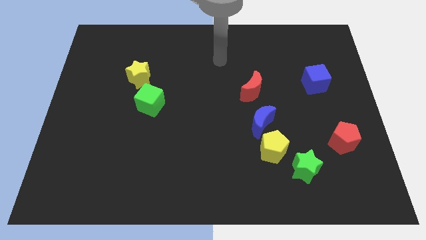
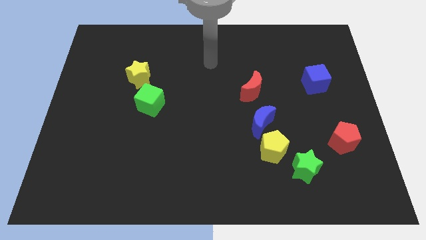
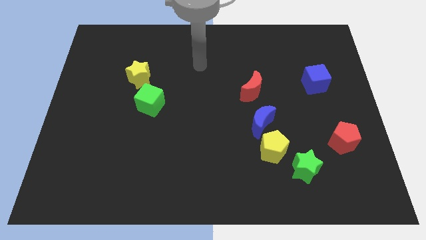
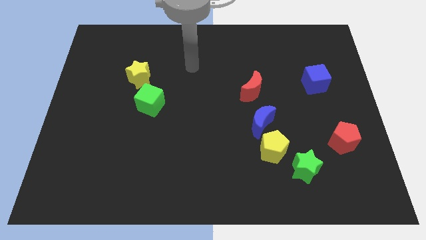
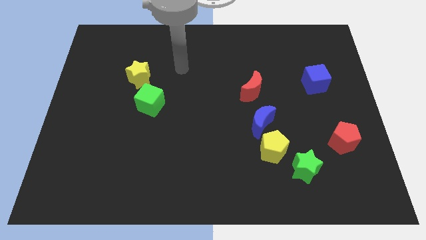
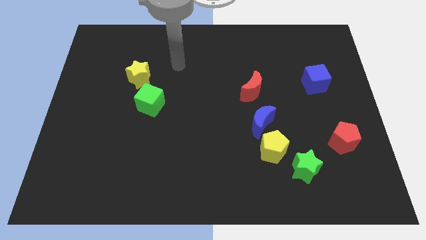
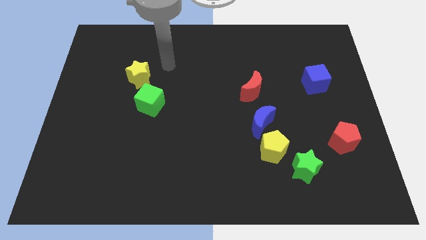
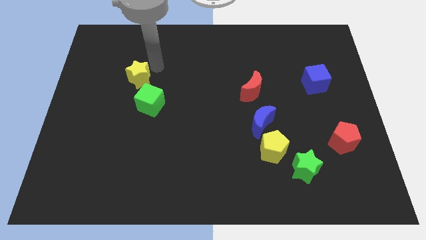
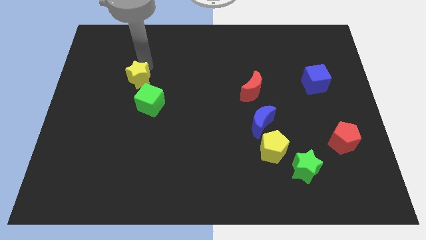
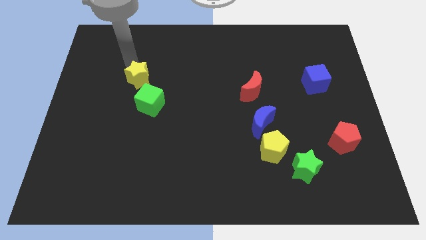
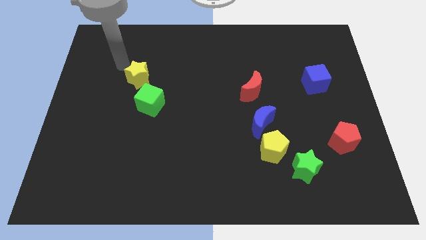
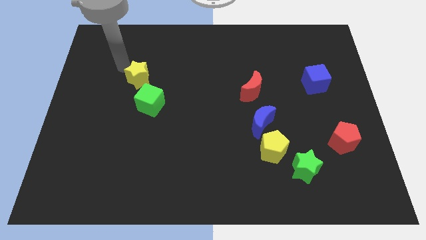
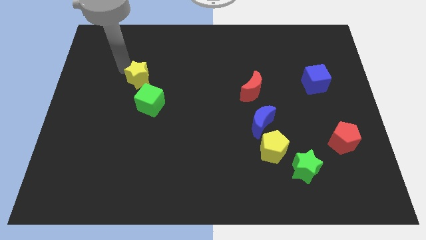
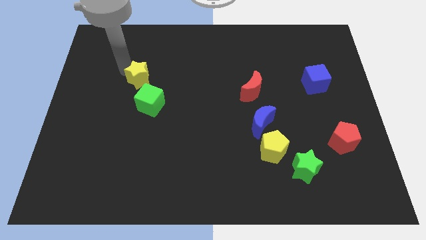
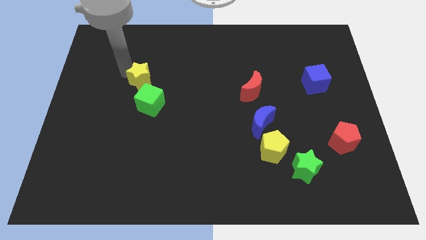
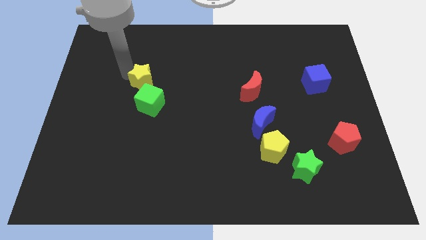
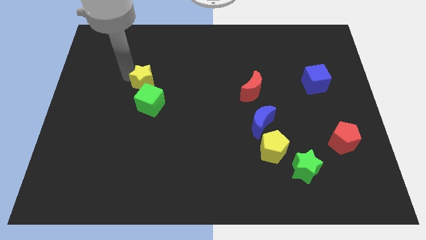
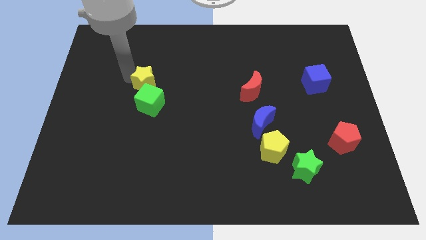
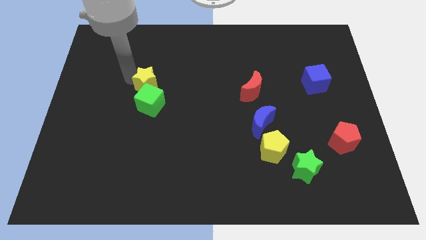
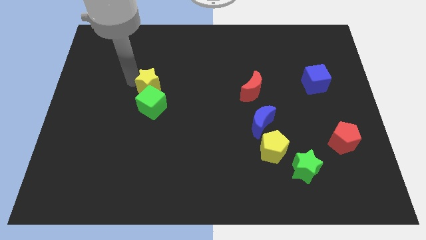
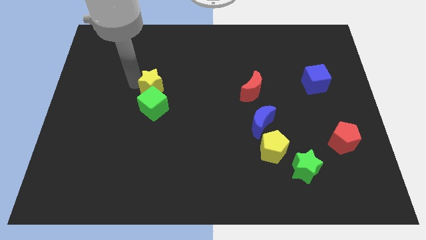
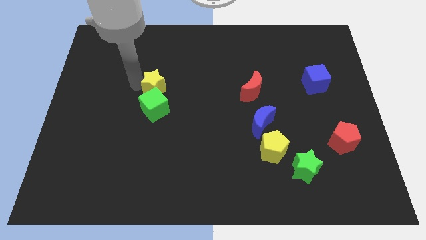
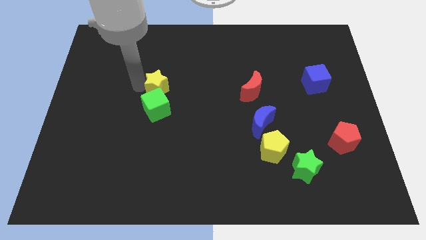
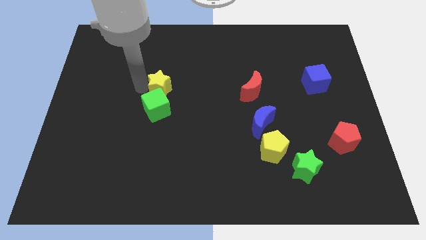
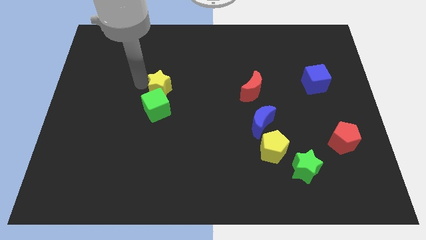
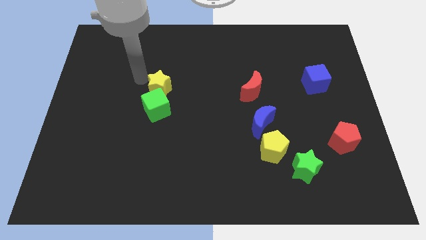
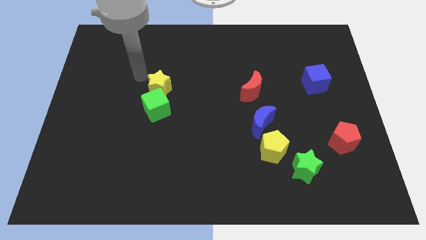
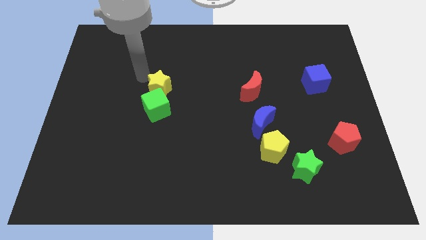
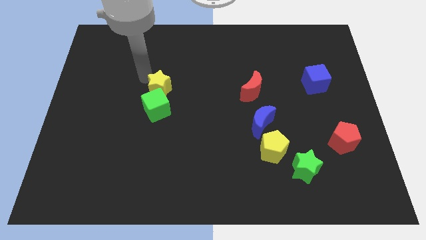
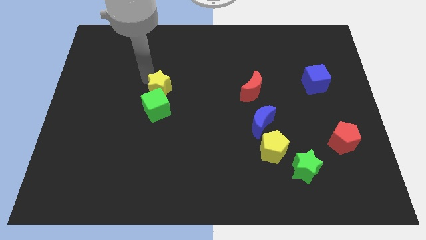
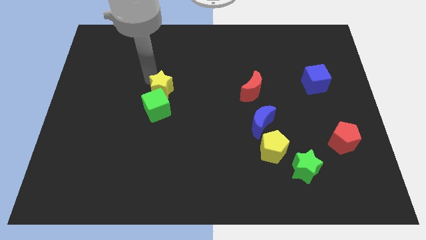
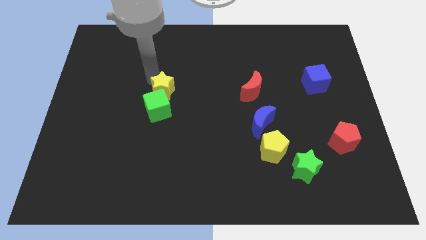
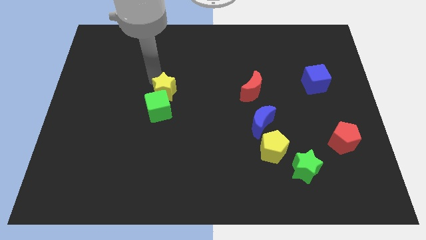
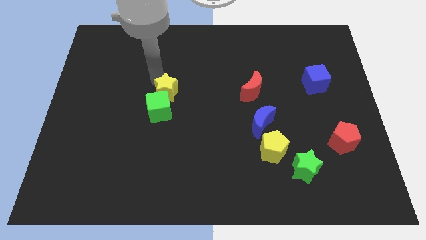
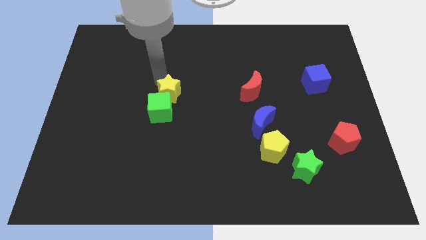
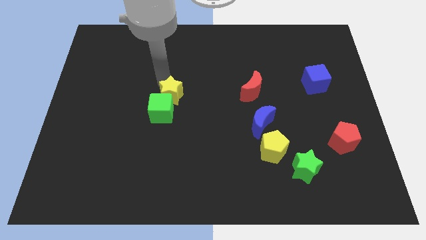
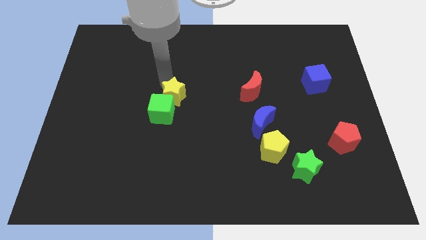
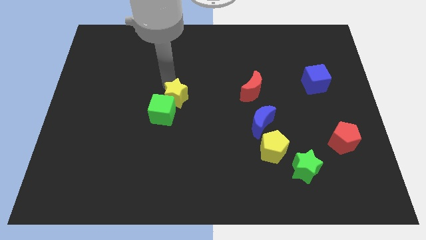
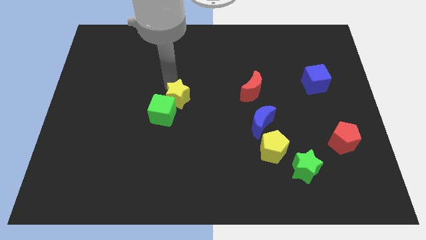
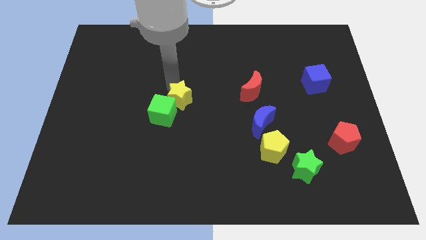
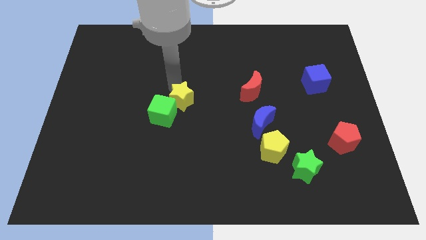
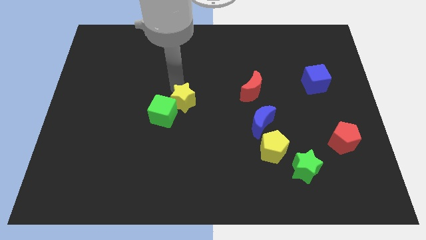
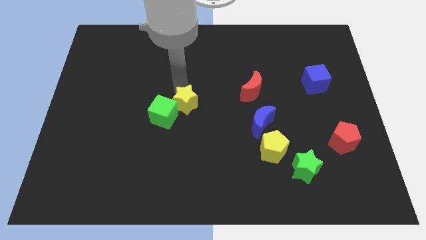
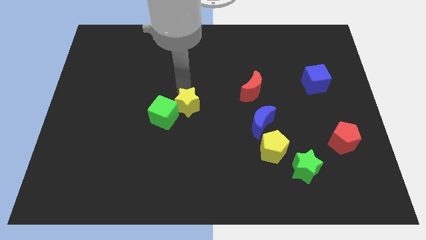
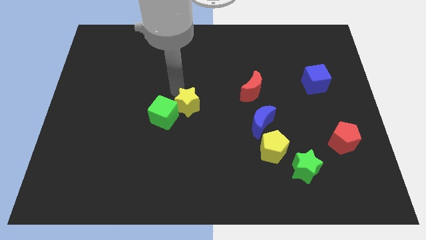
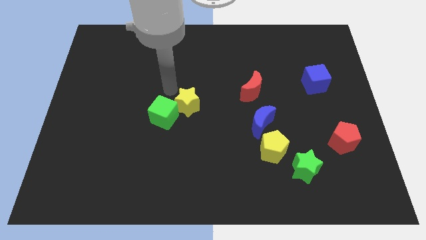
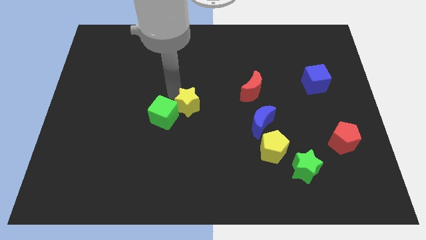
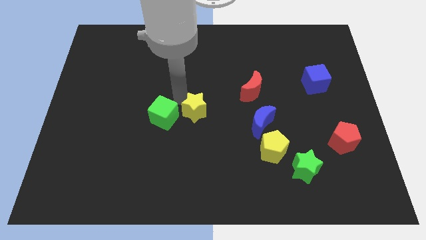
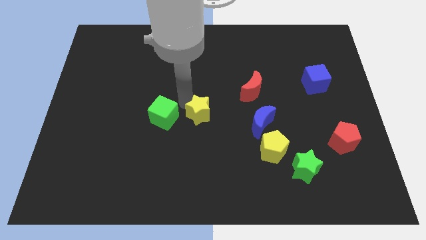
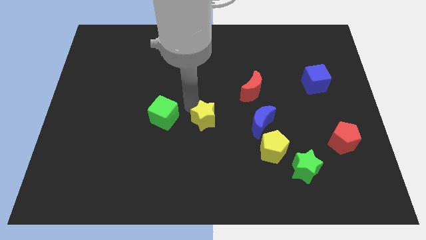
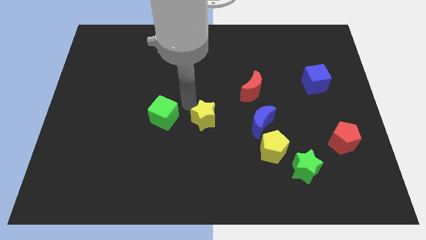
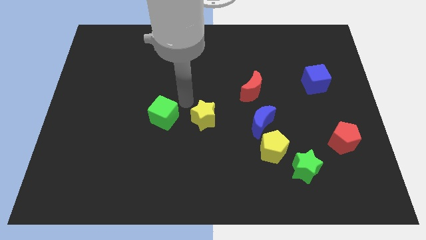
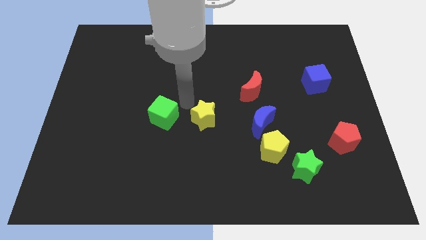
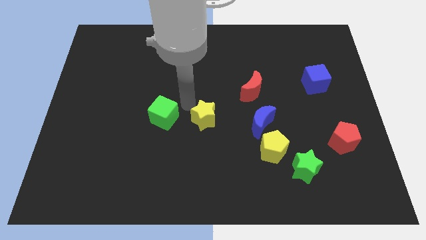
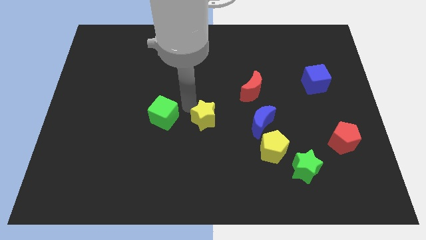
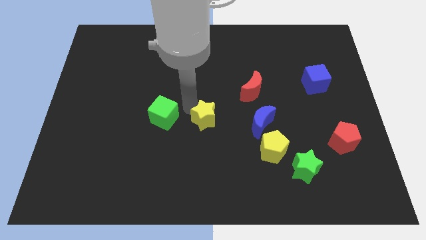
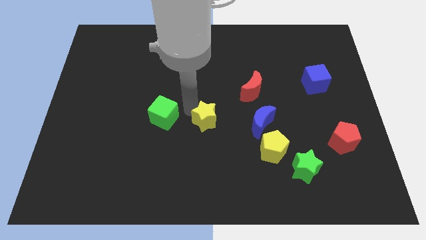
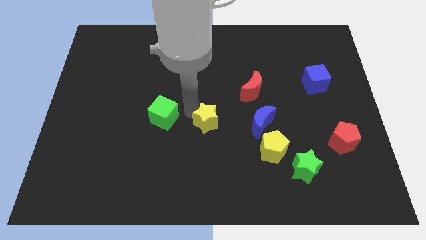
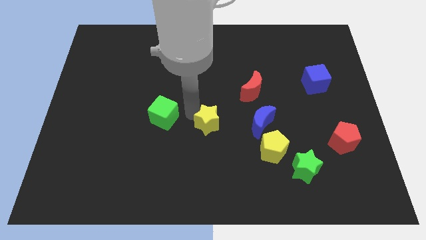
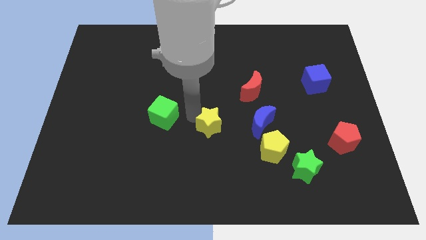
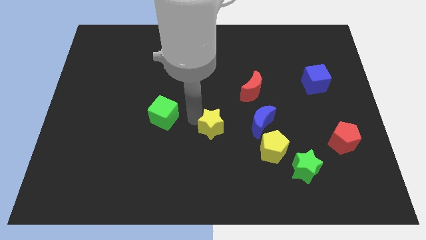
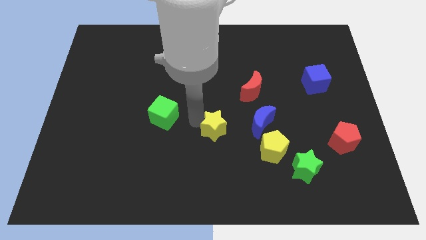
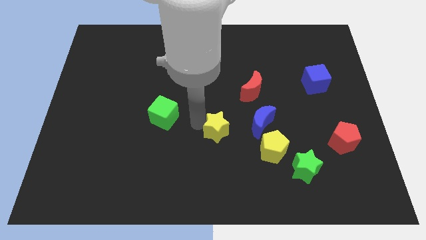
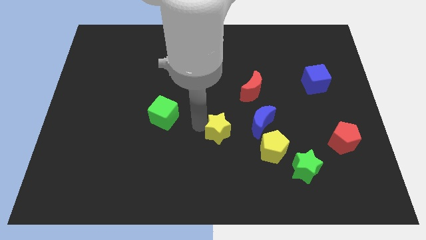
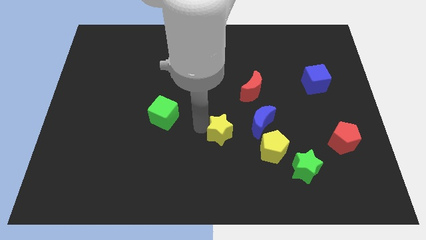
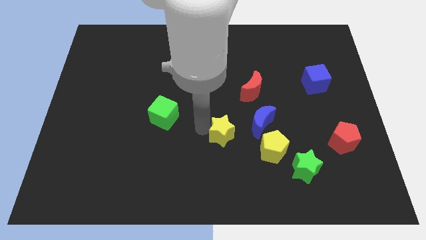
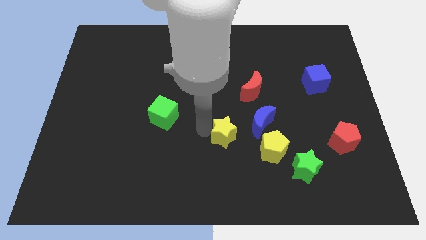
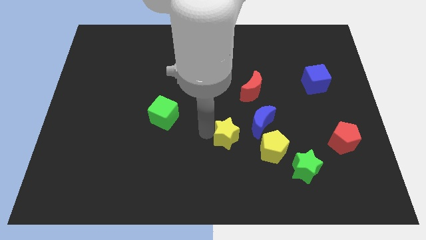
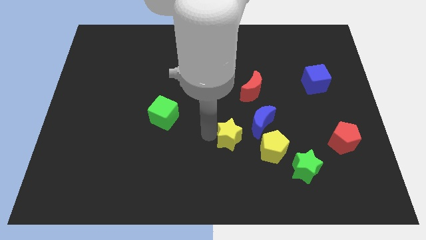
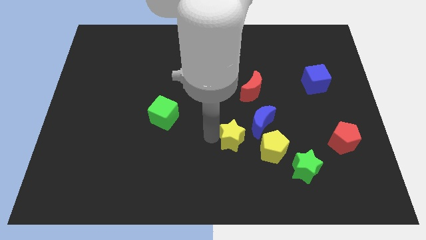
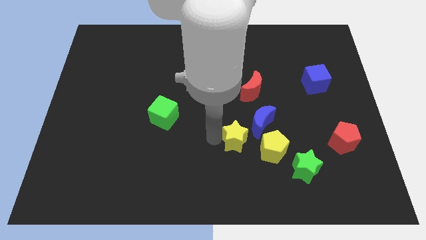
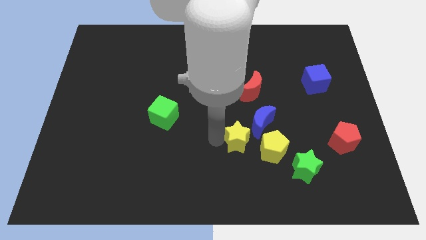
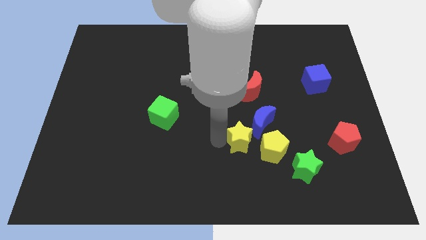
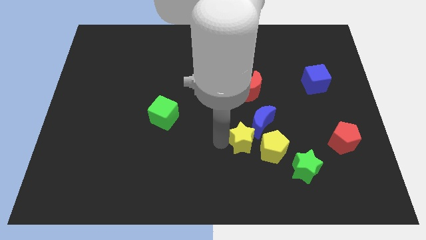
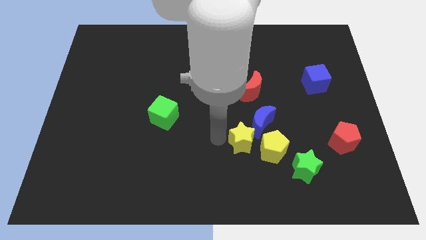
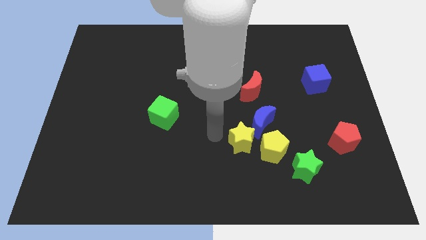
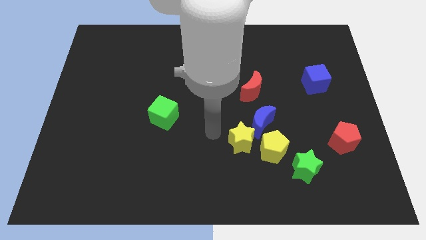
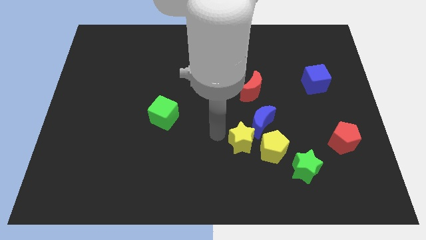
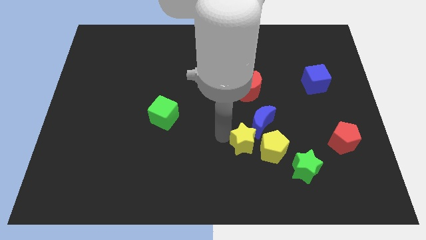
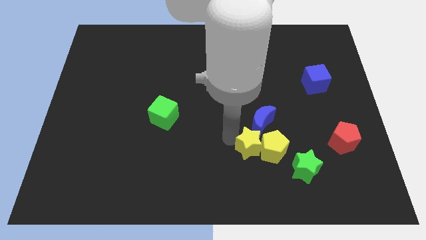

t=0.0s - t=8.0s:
move the yellow star to the yellow pentagon
